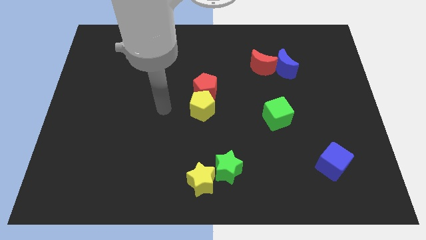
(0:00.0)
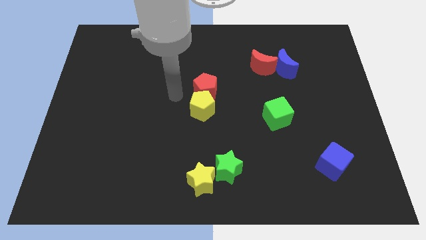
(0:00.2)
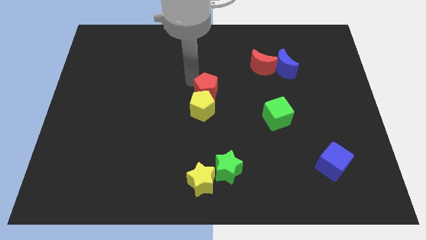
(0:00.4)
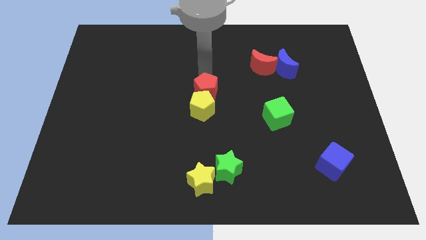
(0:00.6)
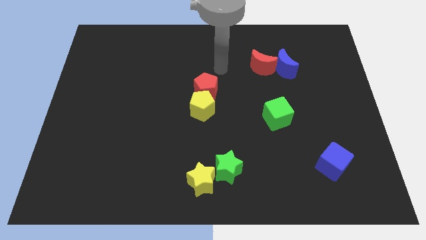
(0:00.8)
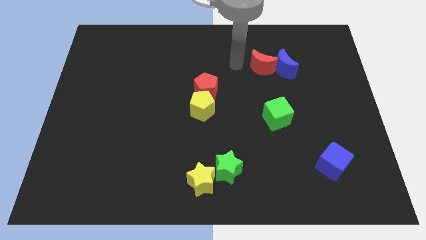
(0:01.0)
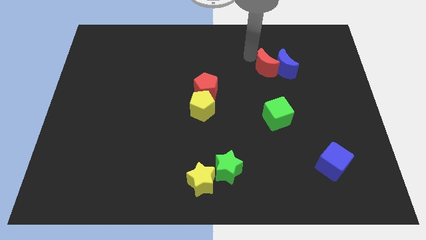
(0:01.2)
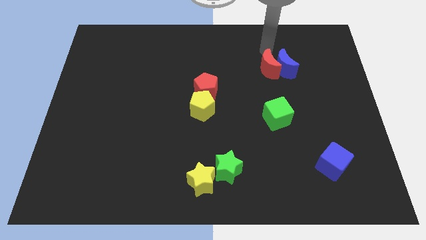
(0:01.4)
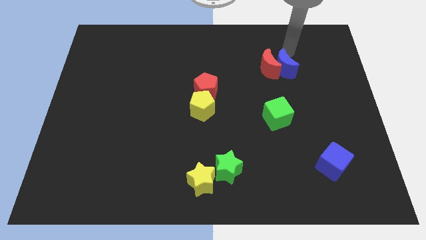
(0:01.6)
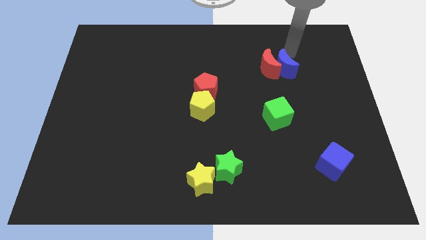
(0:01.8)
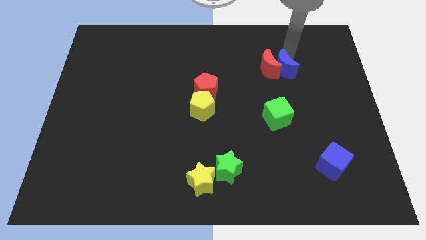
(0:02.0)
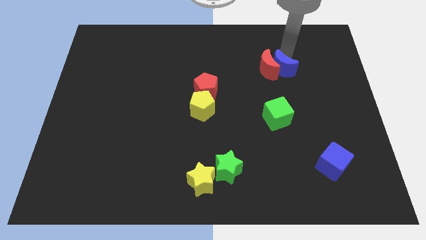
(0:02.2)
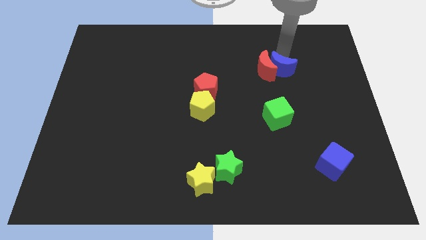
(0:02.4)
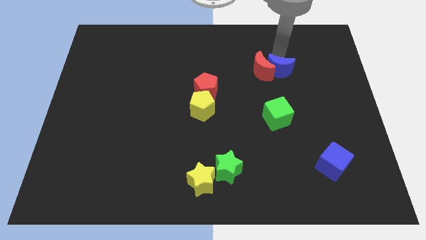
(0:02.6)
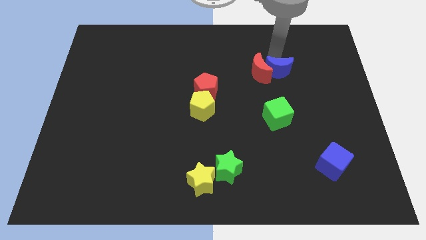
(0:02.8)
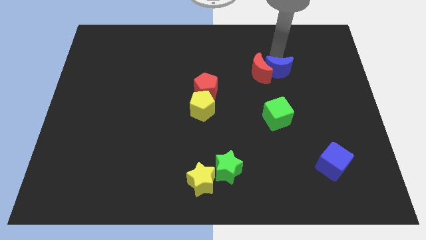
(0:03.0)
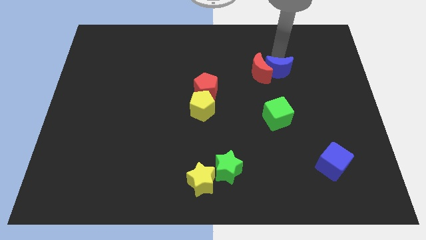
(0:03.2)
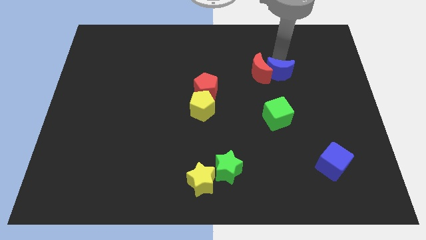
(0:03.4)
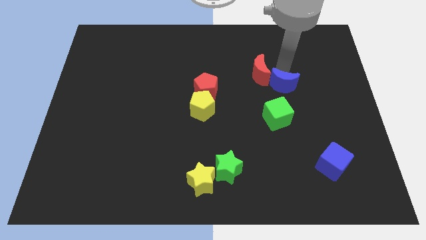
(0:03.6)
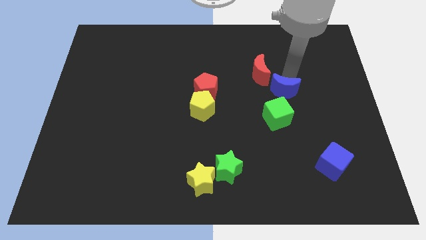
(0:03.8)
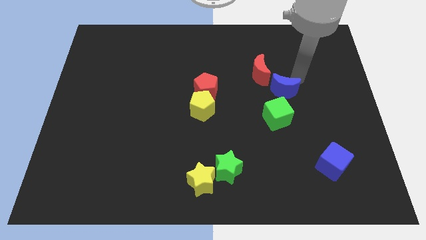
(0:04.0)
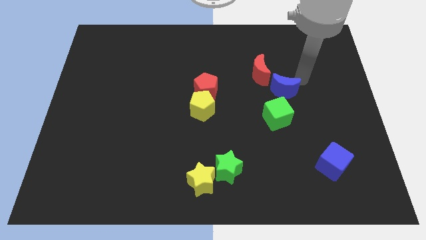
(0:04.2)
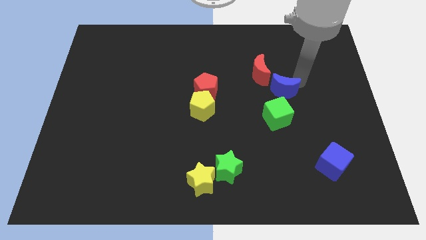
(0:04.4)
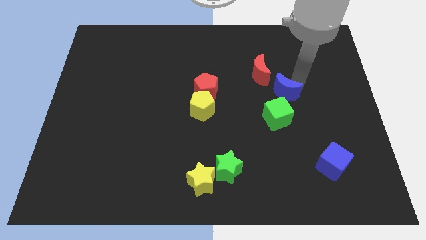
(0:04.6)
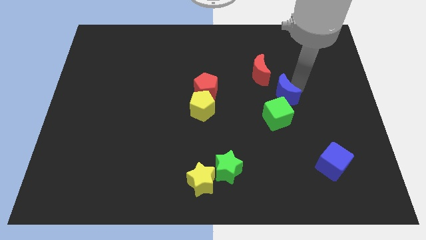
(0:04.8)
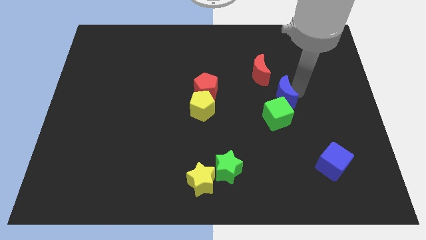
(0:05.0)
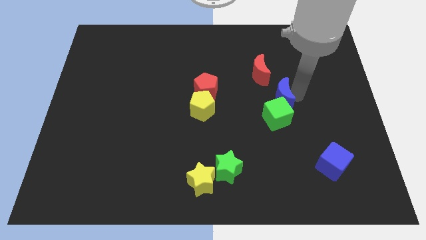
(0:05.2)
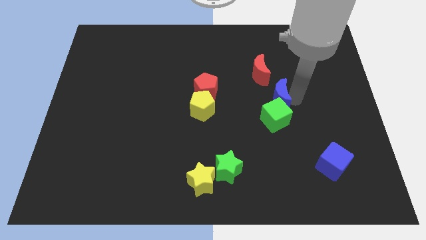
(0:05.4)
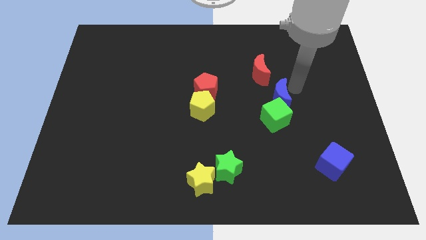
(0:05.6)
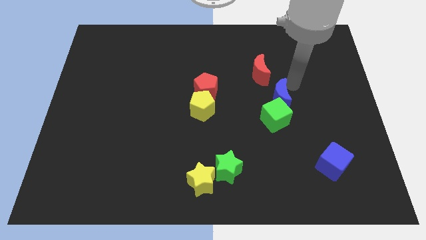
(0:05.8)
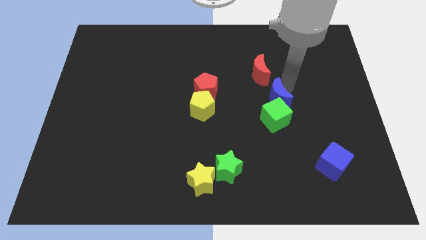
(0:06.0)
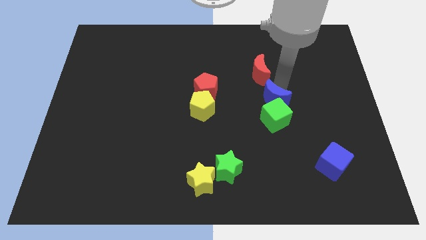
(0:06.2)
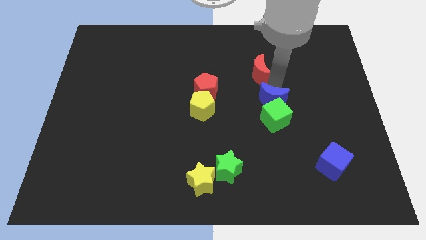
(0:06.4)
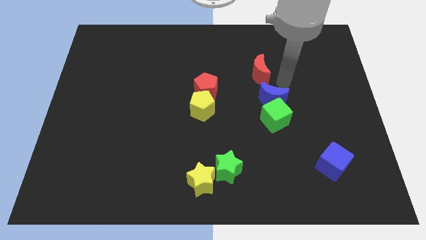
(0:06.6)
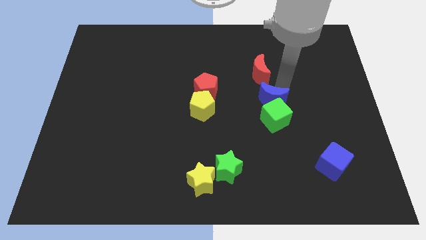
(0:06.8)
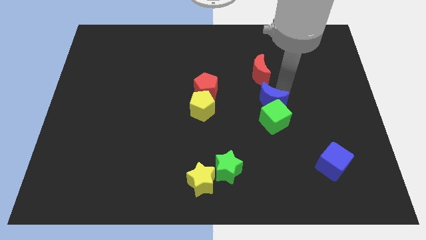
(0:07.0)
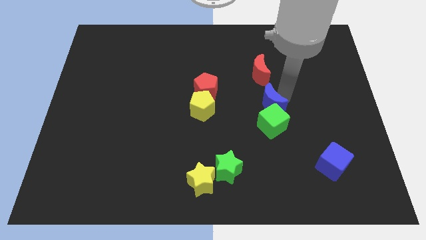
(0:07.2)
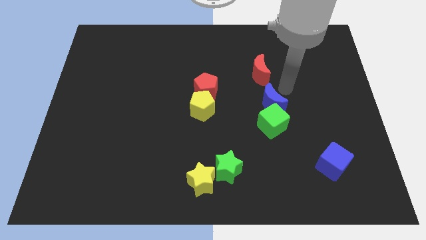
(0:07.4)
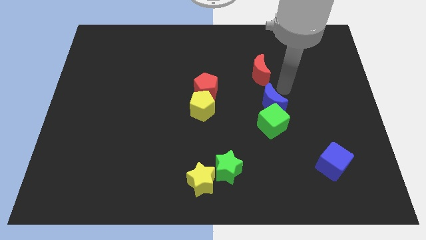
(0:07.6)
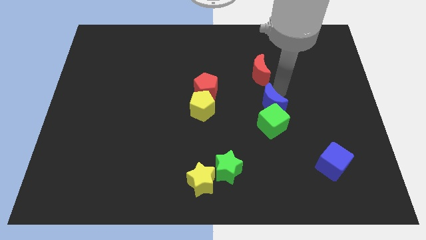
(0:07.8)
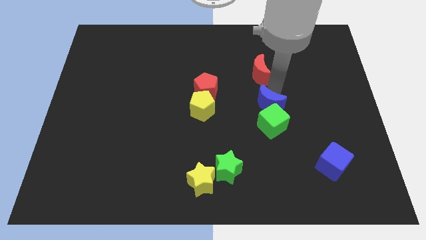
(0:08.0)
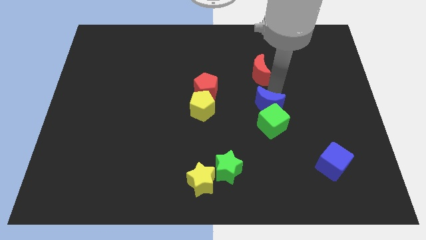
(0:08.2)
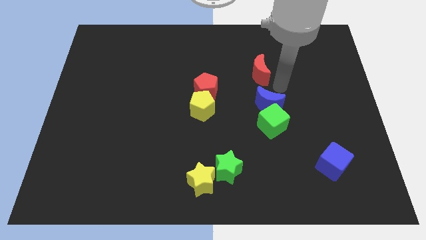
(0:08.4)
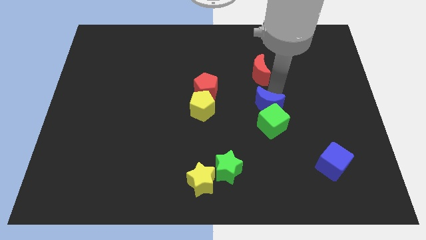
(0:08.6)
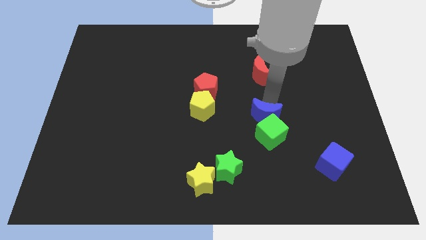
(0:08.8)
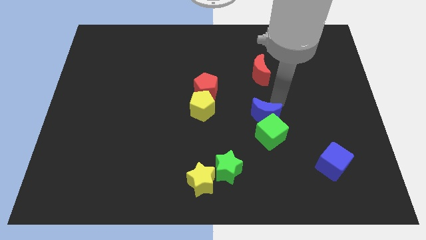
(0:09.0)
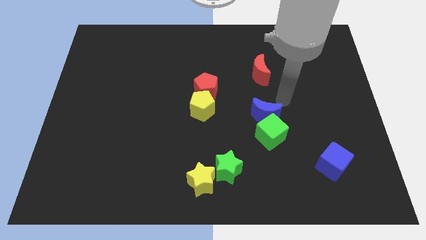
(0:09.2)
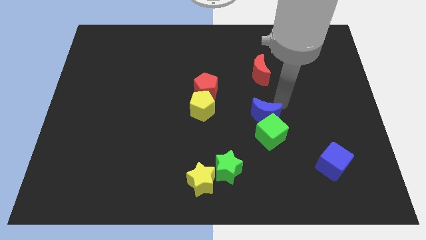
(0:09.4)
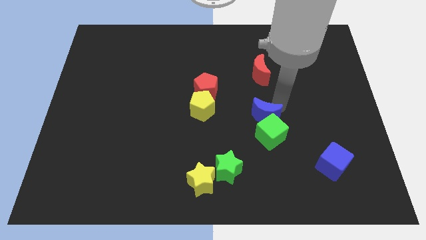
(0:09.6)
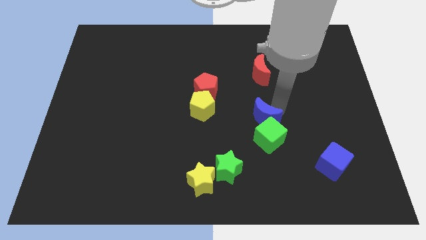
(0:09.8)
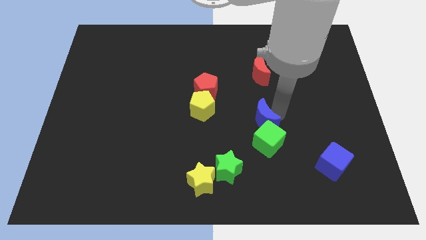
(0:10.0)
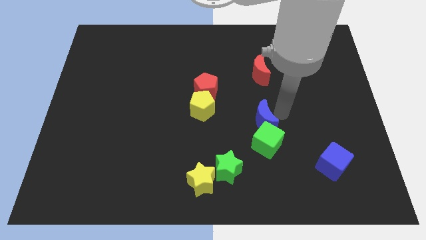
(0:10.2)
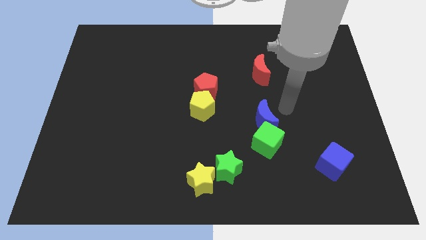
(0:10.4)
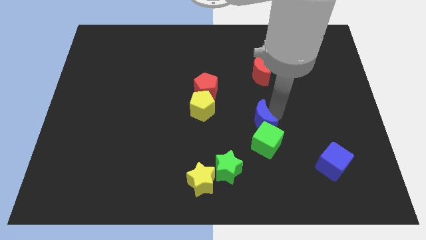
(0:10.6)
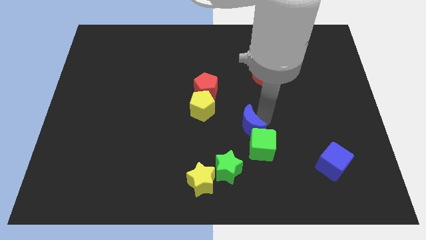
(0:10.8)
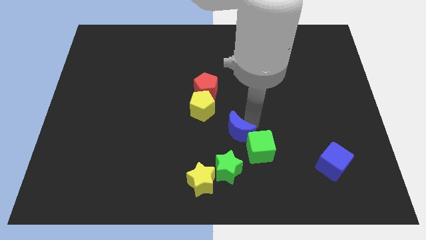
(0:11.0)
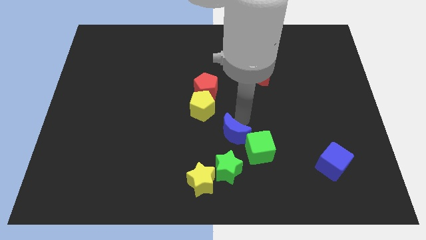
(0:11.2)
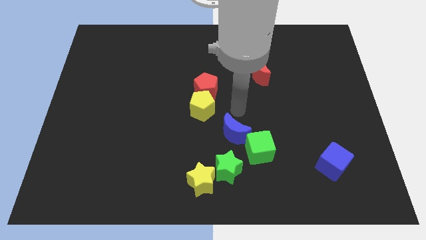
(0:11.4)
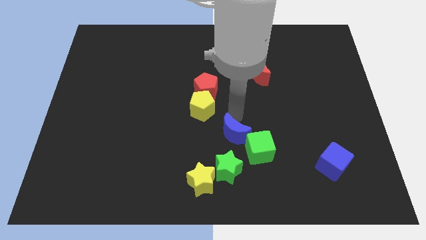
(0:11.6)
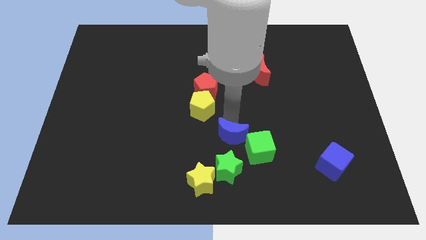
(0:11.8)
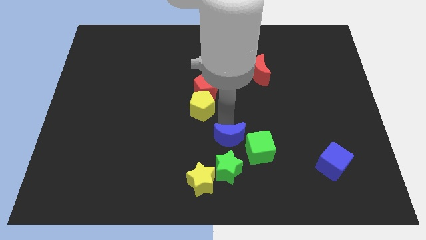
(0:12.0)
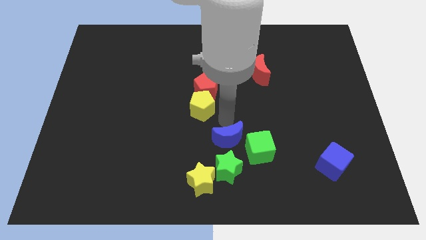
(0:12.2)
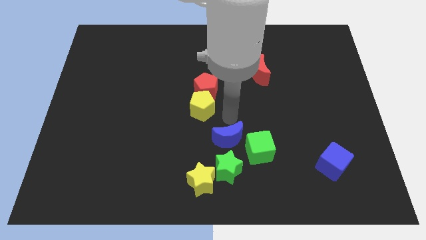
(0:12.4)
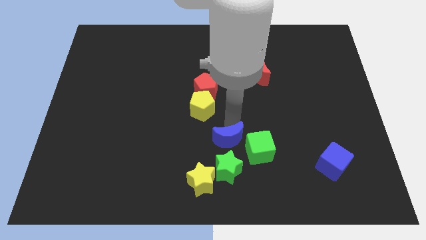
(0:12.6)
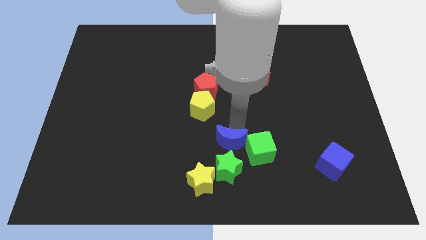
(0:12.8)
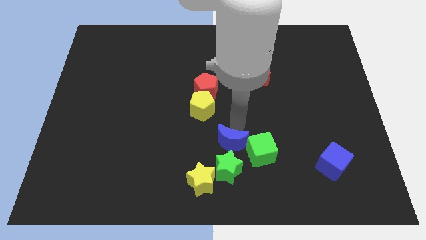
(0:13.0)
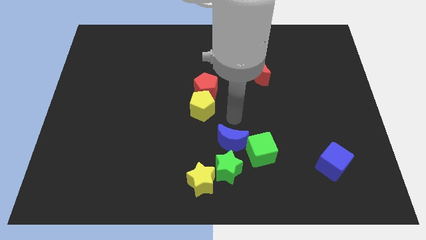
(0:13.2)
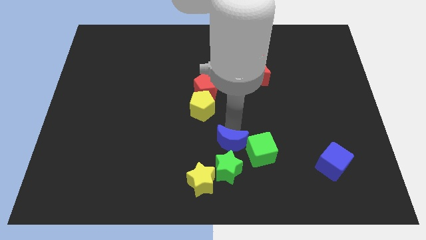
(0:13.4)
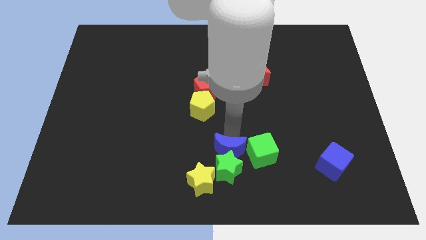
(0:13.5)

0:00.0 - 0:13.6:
put the blue moon next to the green star
